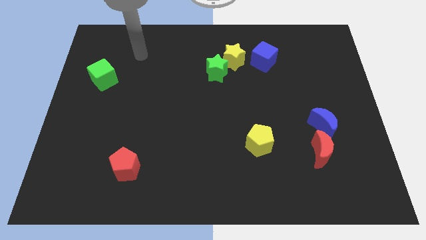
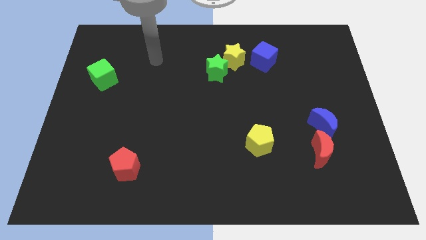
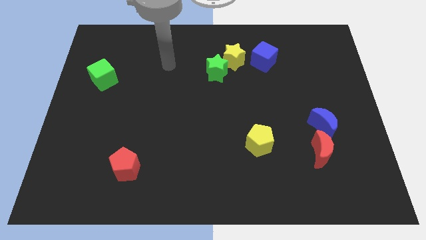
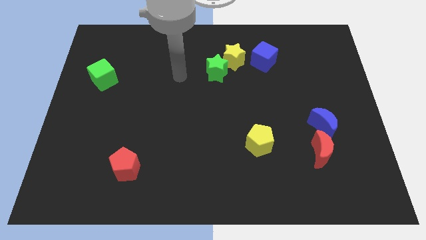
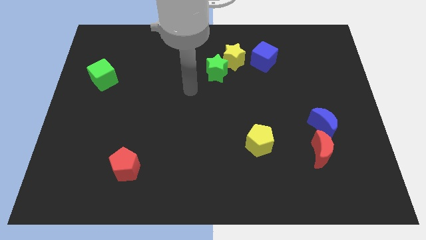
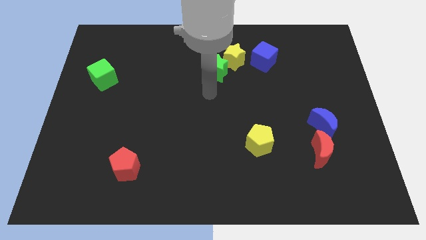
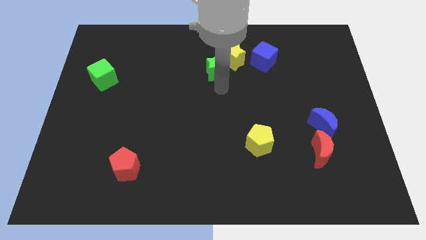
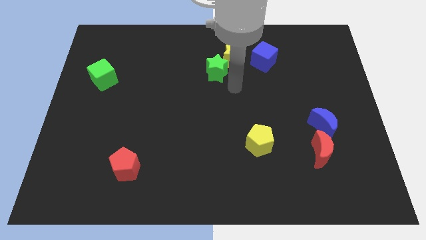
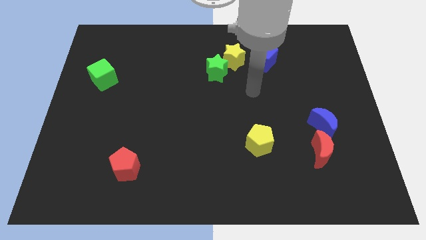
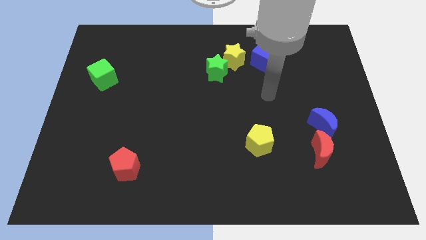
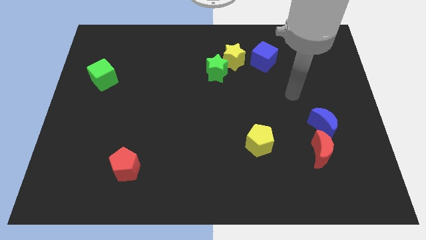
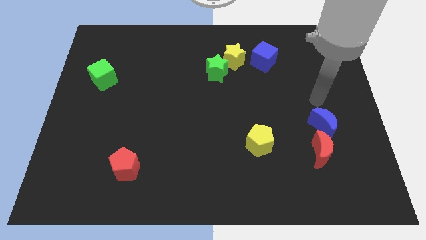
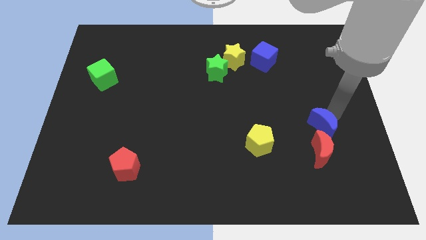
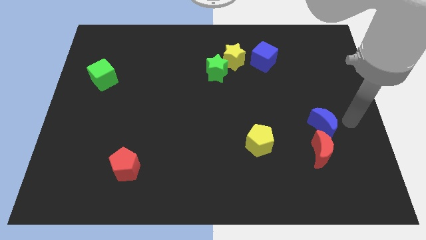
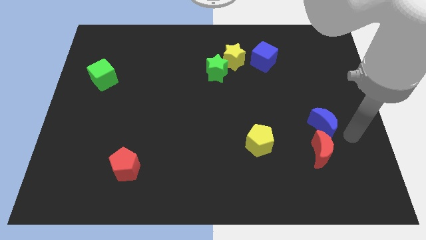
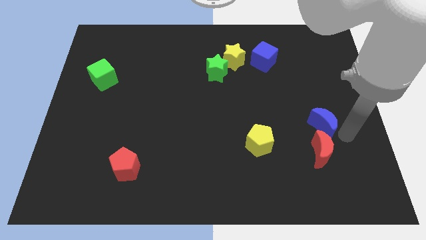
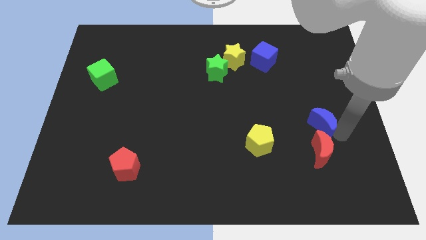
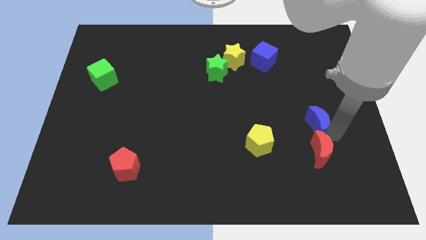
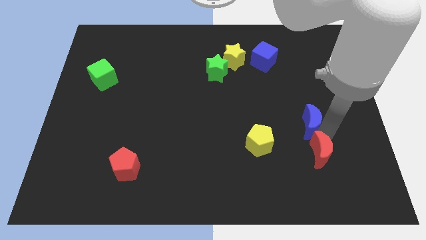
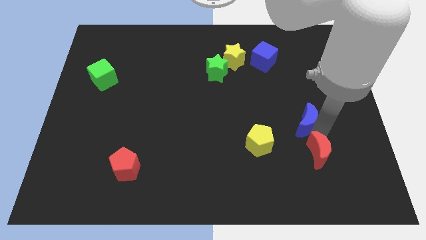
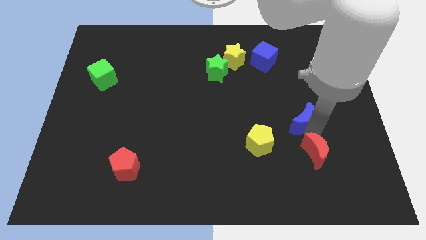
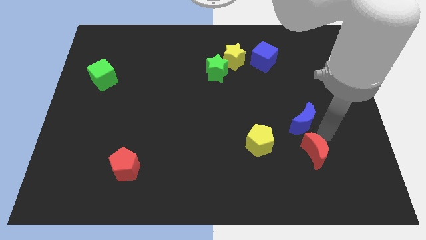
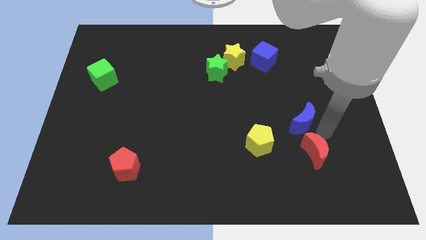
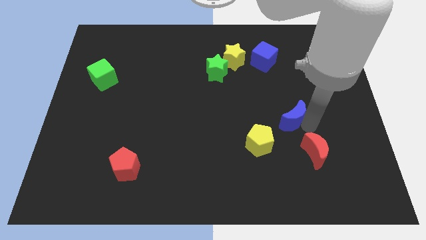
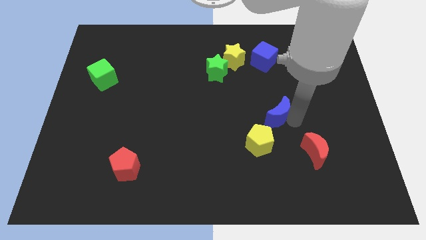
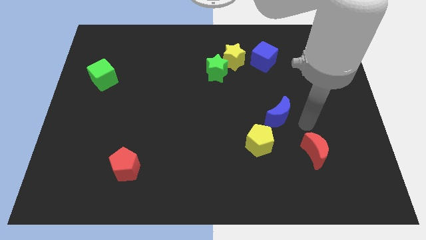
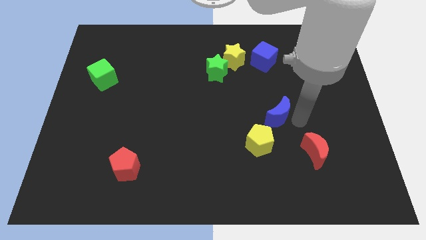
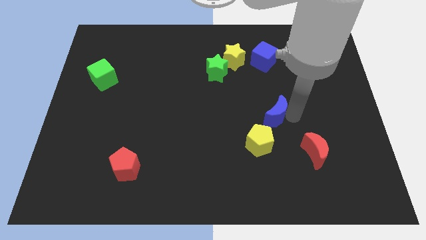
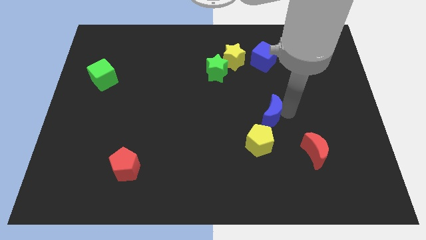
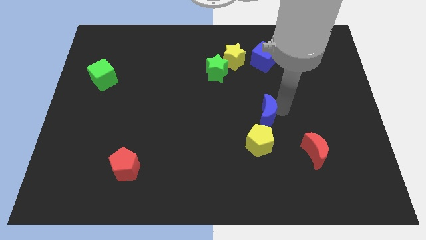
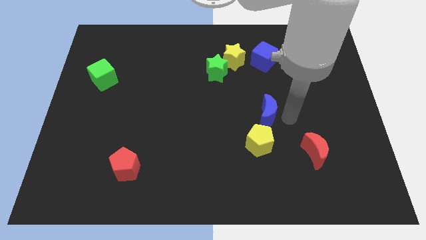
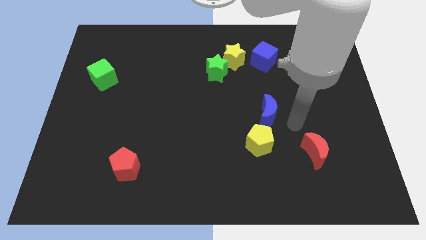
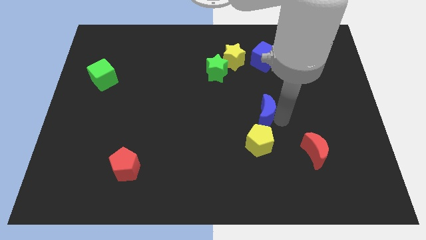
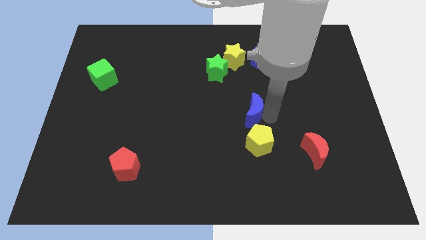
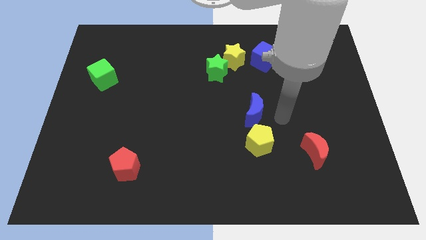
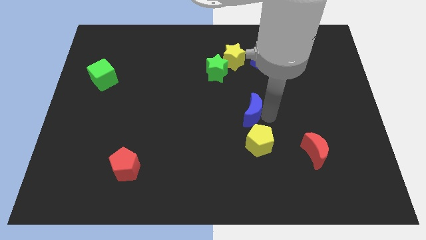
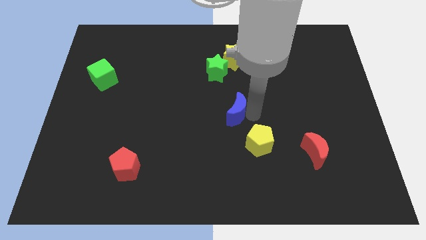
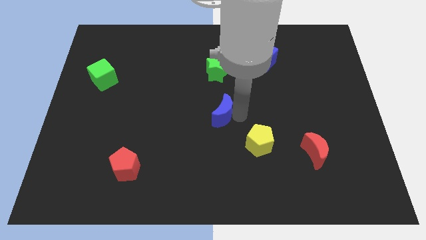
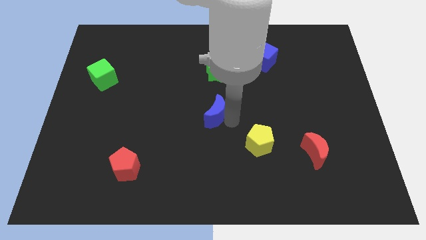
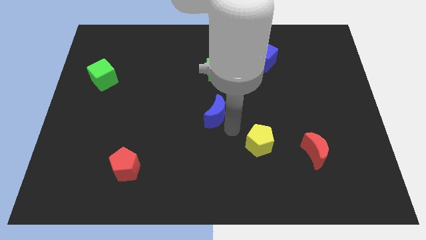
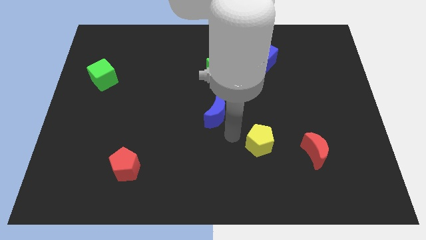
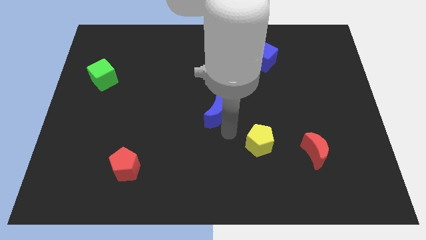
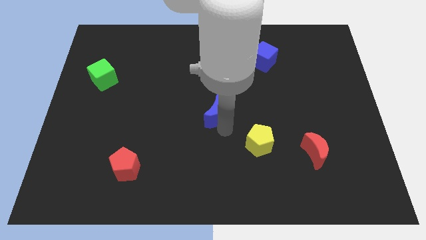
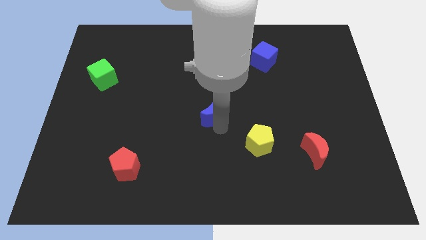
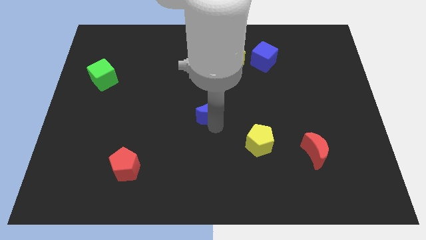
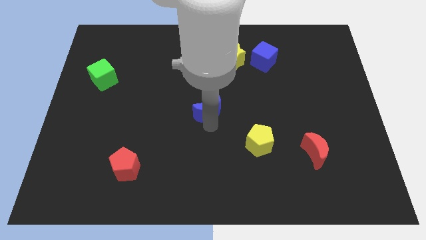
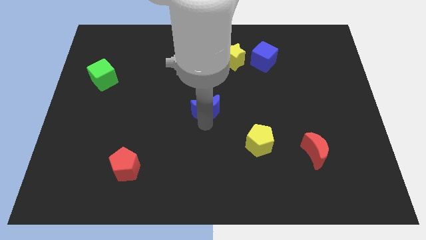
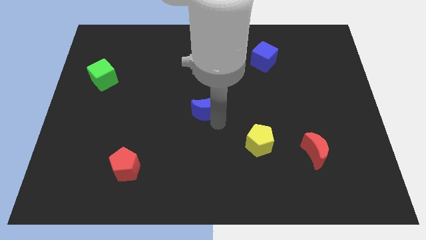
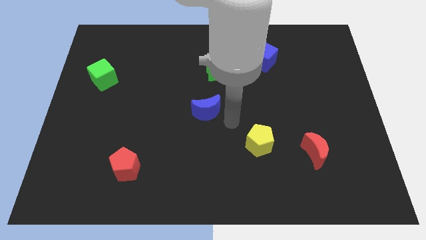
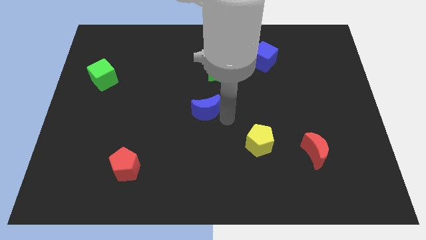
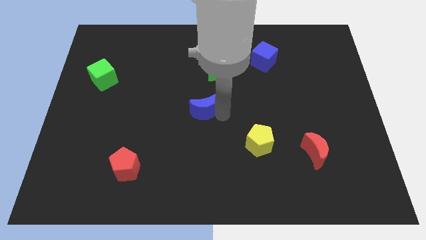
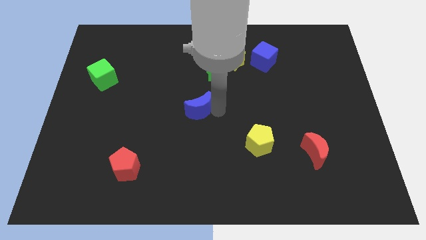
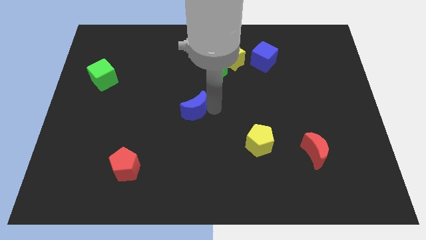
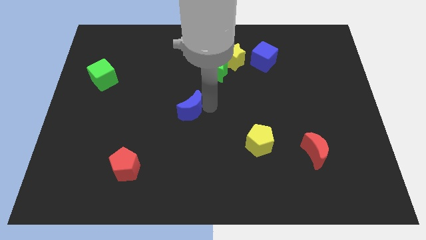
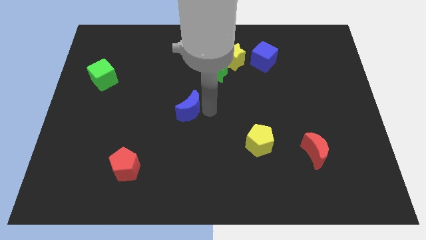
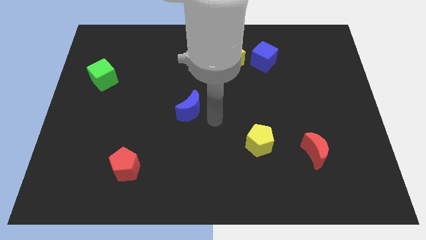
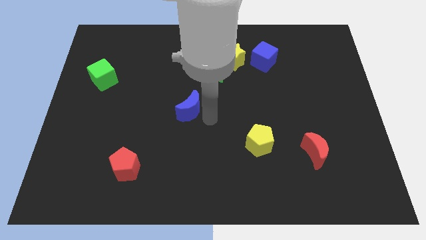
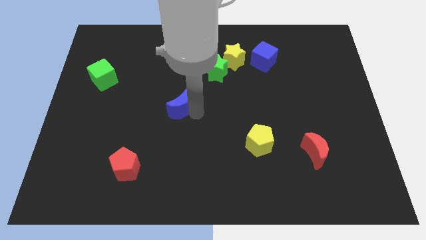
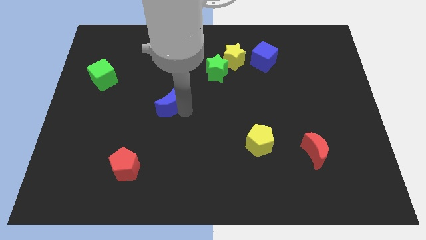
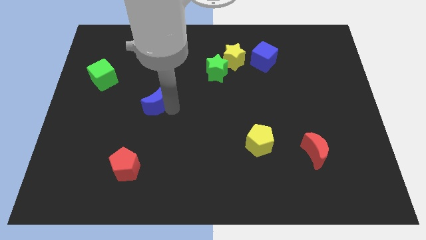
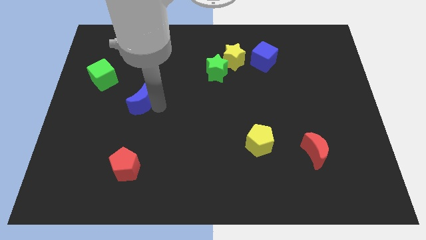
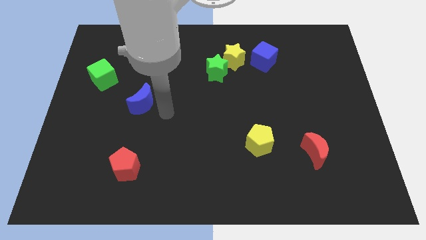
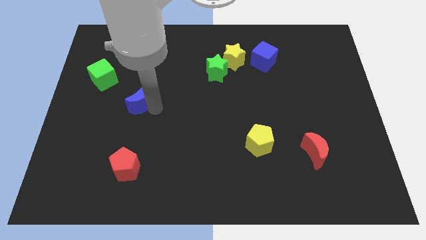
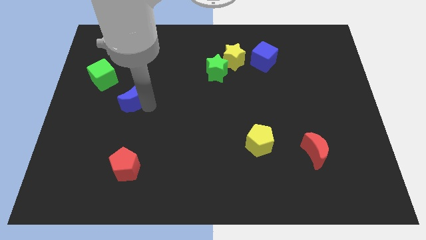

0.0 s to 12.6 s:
move the blue moon to the bottom right of the green cube

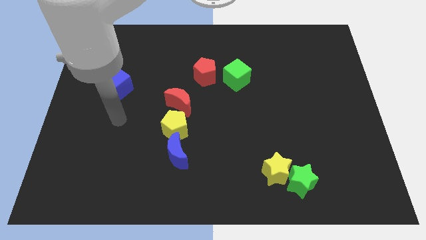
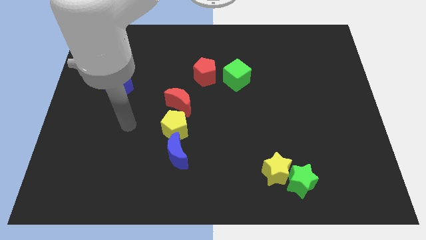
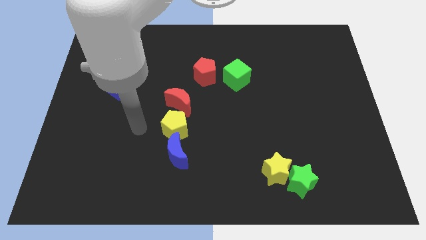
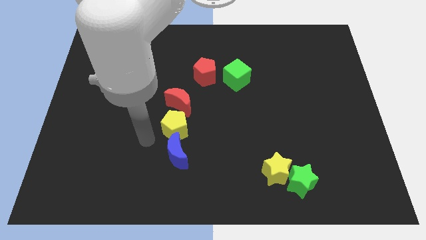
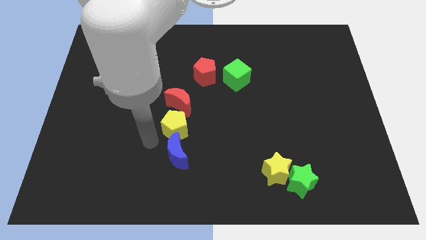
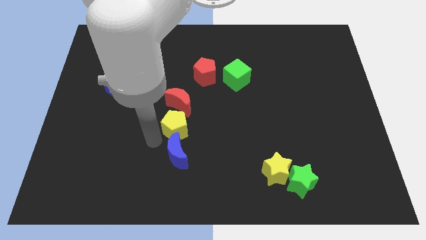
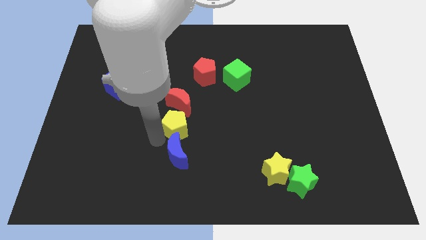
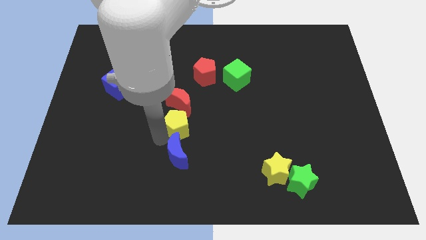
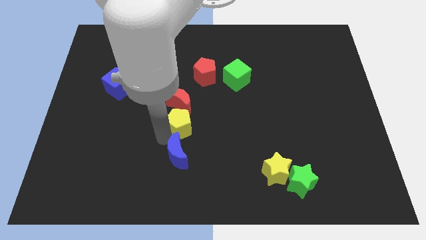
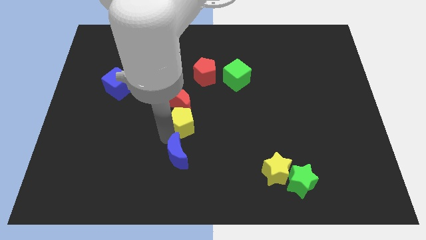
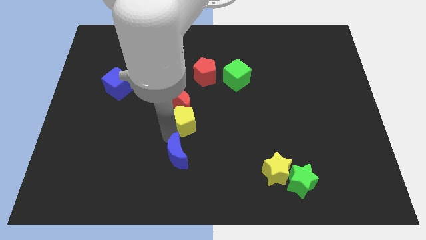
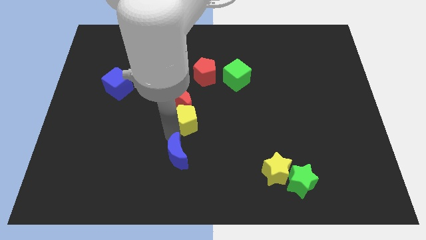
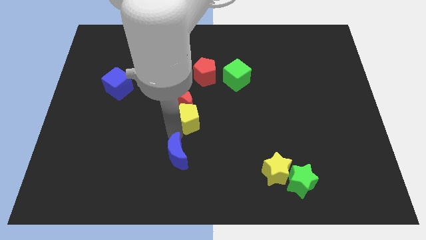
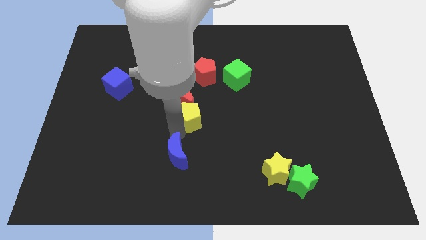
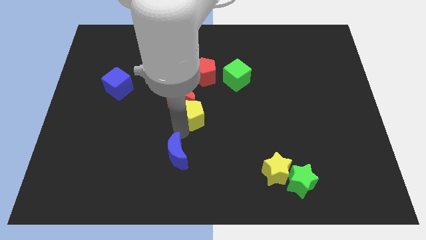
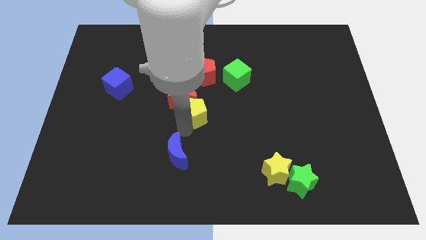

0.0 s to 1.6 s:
put the yellow pentagon to the right of the red moon
